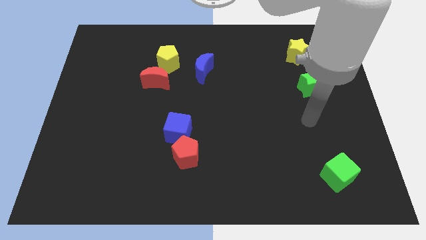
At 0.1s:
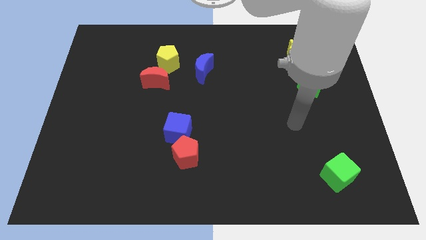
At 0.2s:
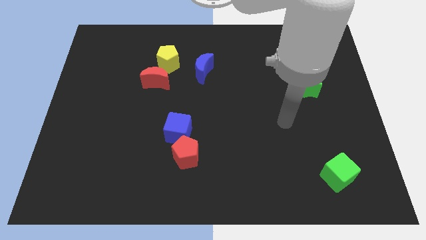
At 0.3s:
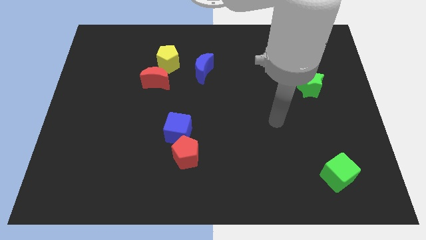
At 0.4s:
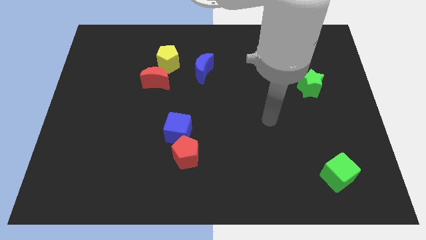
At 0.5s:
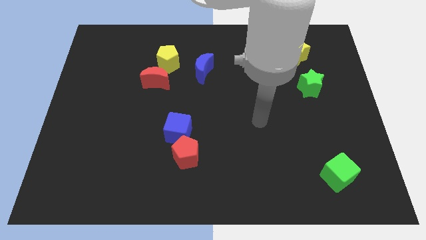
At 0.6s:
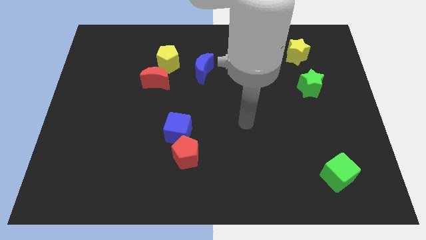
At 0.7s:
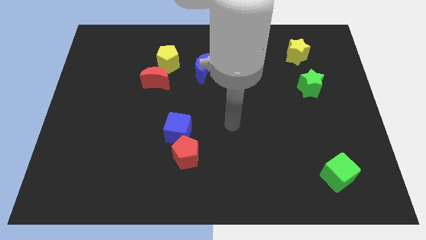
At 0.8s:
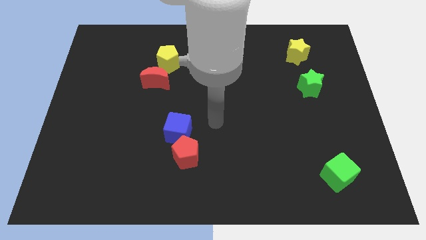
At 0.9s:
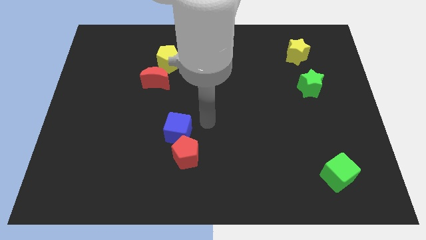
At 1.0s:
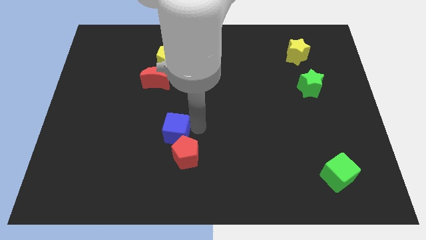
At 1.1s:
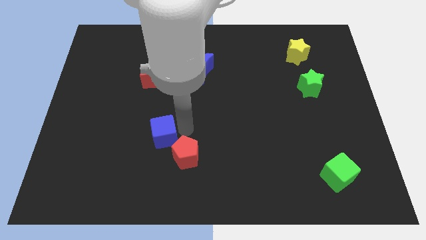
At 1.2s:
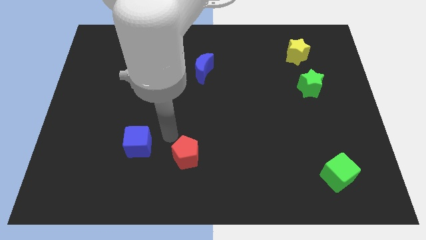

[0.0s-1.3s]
separate the red pentagon from the blue cube

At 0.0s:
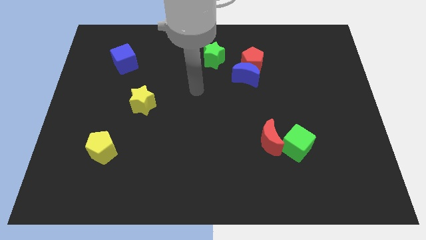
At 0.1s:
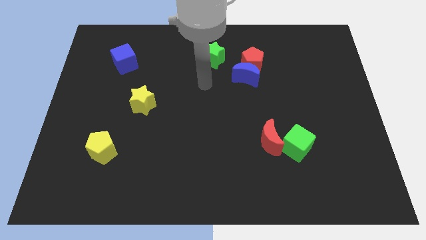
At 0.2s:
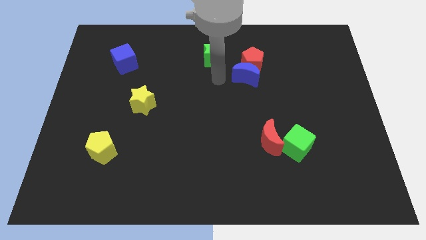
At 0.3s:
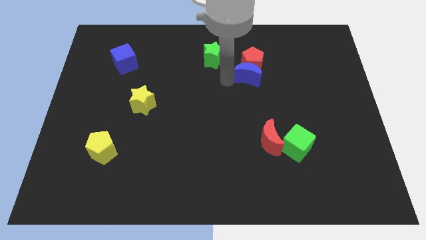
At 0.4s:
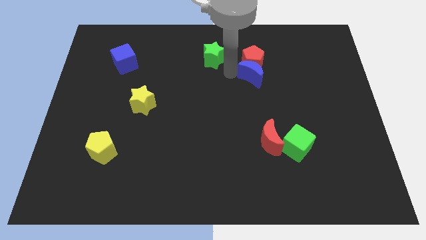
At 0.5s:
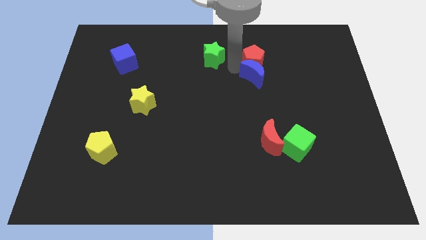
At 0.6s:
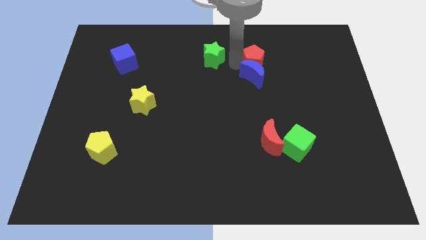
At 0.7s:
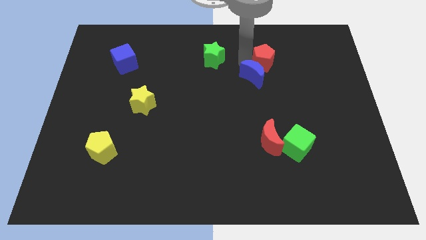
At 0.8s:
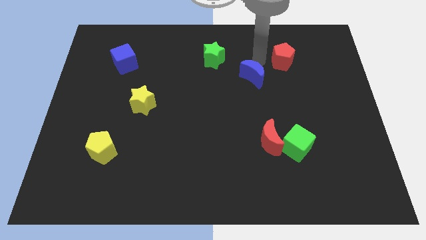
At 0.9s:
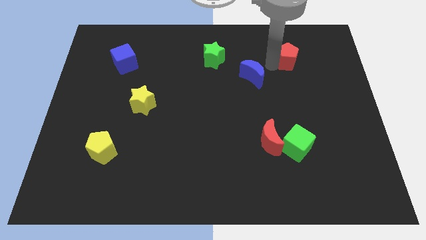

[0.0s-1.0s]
move the blue moon away from the red pentagon

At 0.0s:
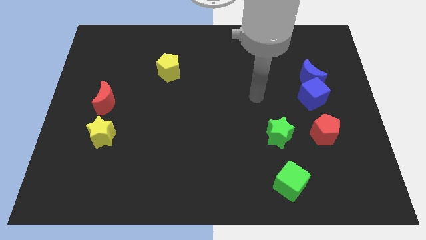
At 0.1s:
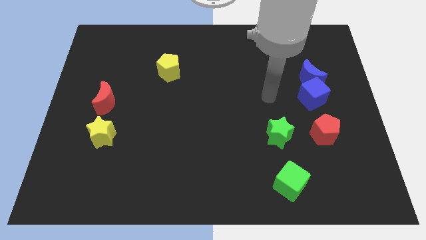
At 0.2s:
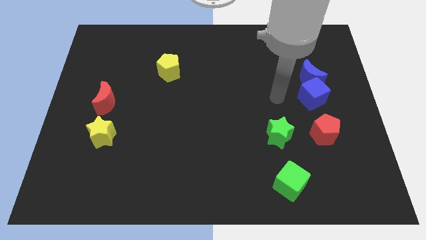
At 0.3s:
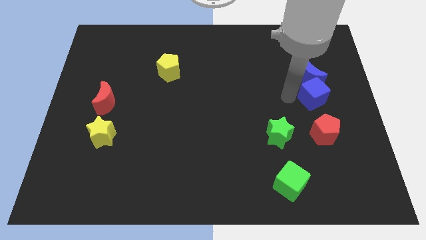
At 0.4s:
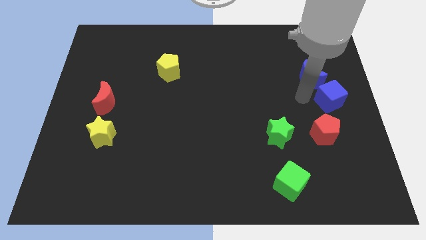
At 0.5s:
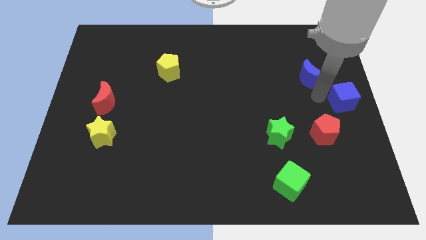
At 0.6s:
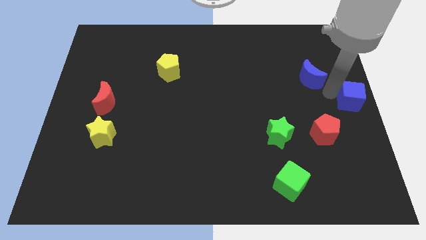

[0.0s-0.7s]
move the blue moon away from the blue cube

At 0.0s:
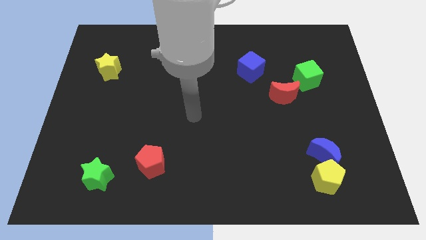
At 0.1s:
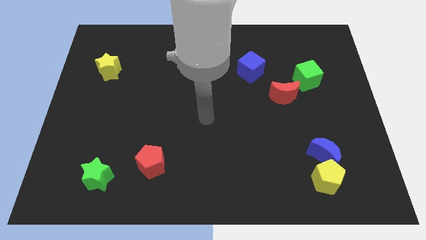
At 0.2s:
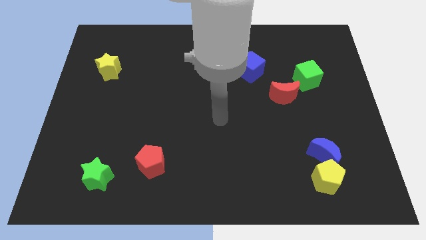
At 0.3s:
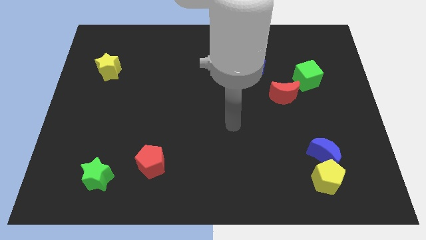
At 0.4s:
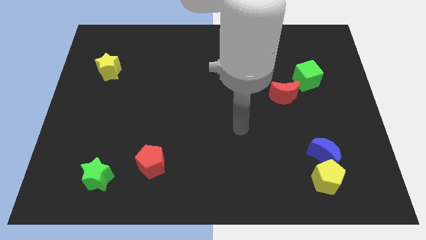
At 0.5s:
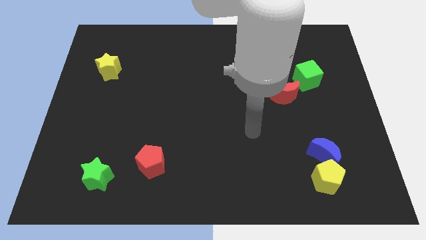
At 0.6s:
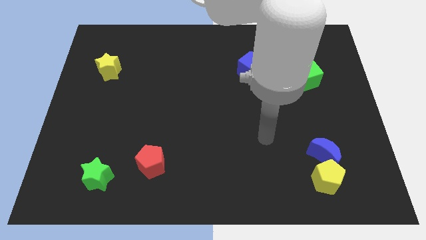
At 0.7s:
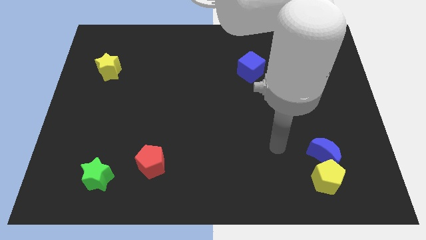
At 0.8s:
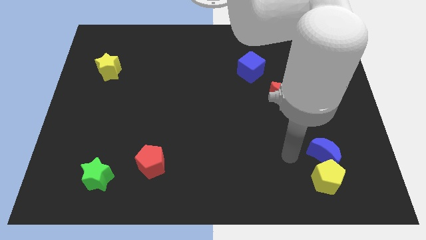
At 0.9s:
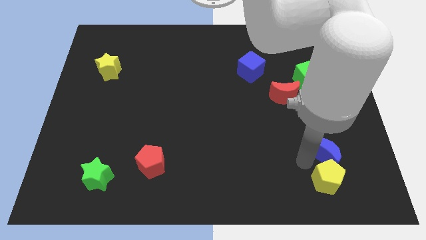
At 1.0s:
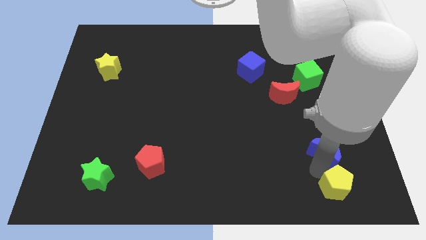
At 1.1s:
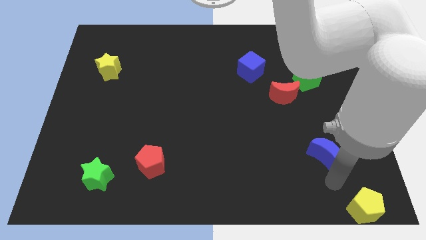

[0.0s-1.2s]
separate the blue moon from the yellow pentagon

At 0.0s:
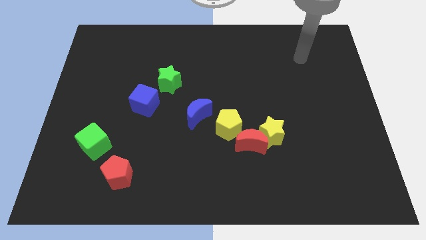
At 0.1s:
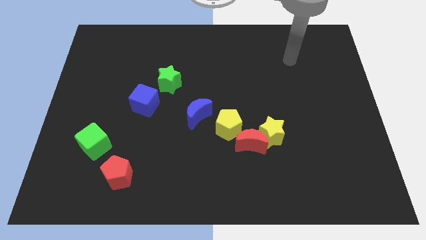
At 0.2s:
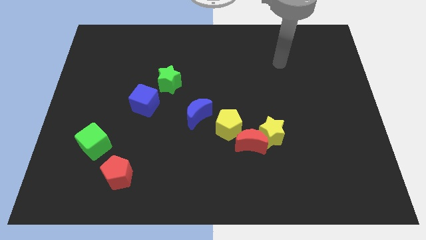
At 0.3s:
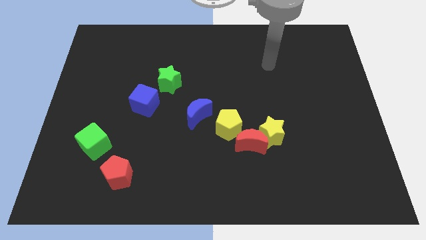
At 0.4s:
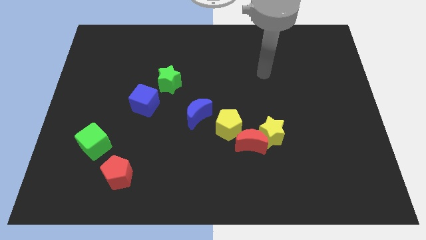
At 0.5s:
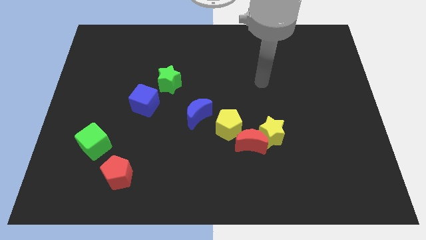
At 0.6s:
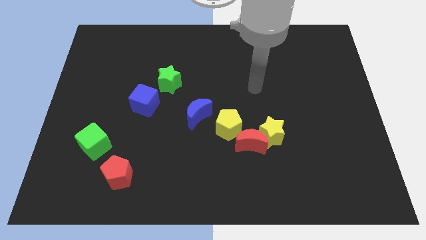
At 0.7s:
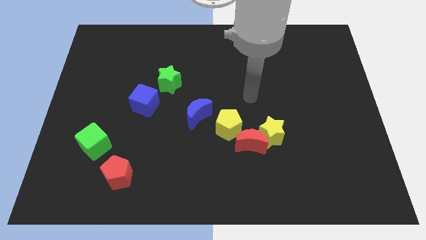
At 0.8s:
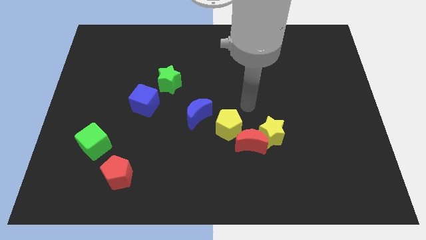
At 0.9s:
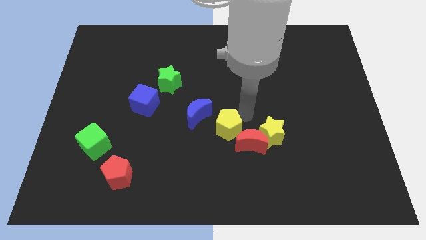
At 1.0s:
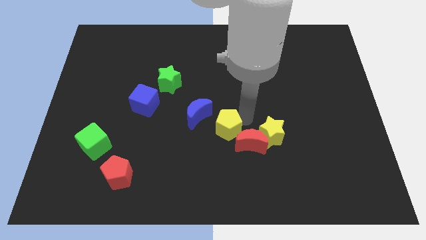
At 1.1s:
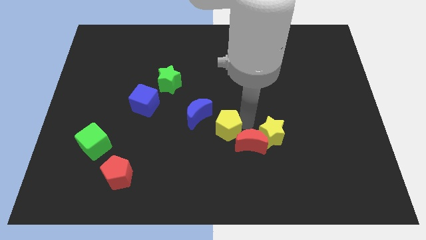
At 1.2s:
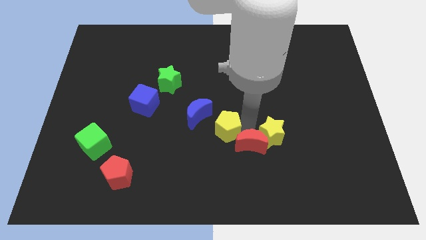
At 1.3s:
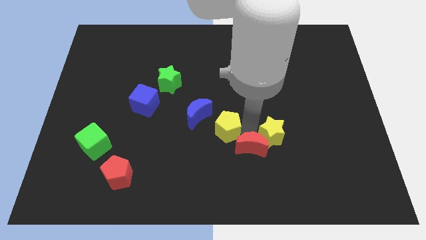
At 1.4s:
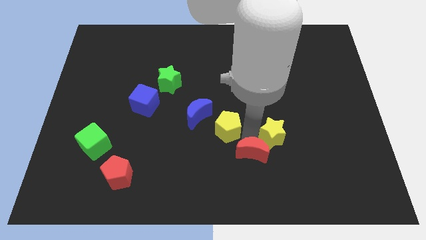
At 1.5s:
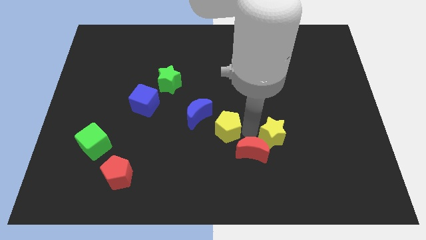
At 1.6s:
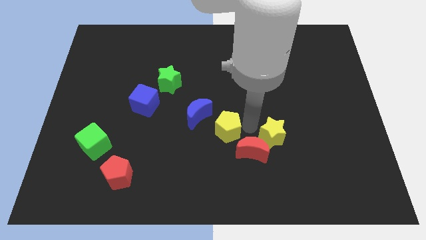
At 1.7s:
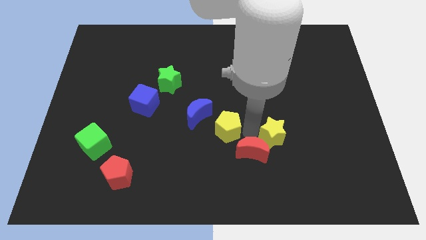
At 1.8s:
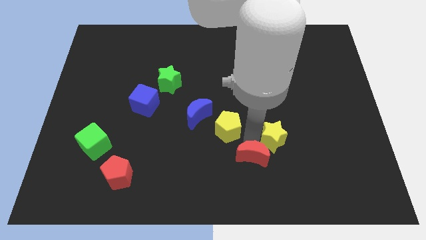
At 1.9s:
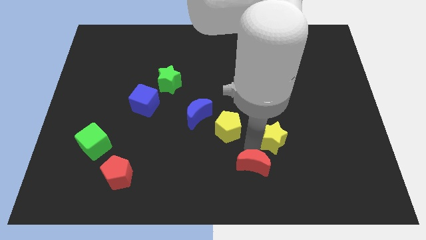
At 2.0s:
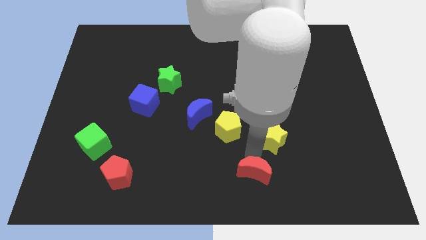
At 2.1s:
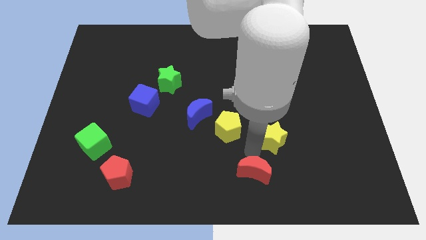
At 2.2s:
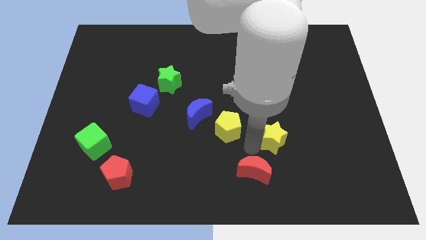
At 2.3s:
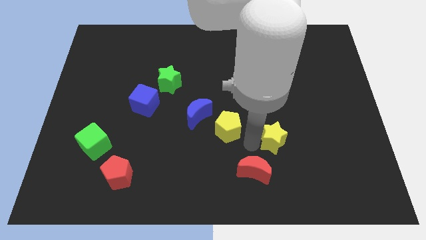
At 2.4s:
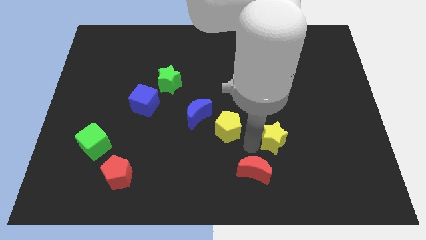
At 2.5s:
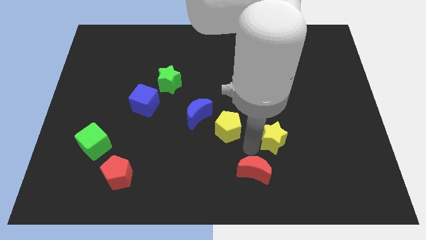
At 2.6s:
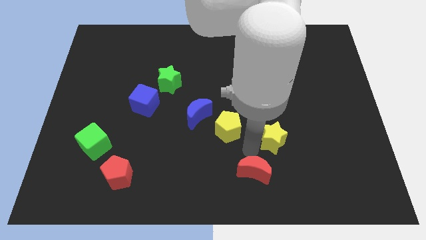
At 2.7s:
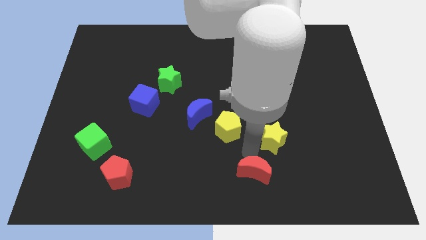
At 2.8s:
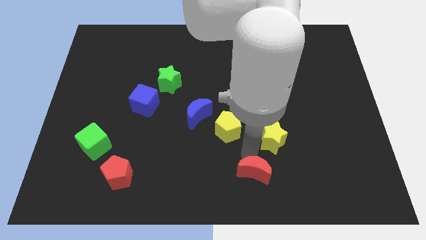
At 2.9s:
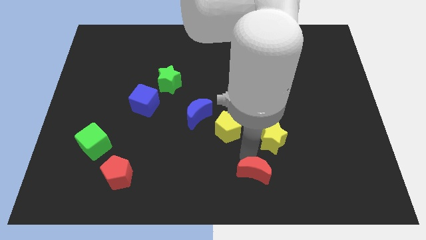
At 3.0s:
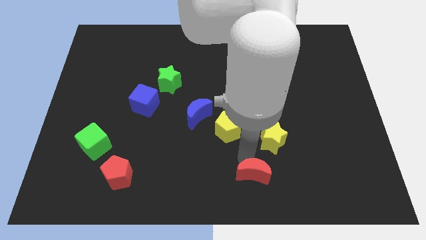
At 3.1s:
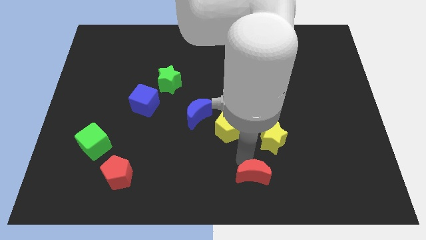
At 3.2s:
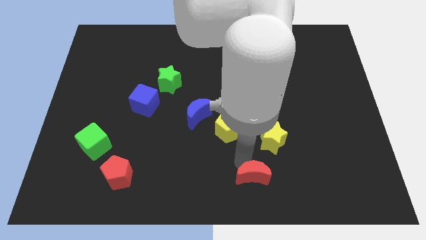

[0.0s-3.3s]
move the red moon away from the yellow star and yellow pentagon

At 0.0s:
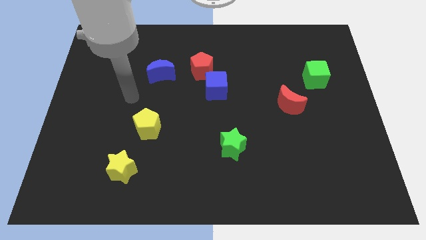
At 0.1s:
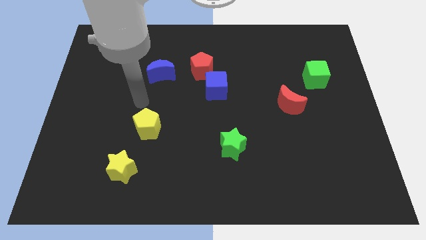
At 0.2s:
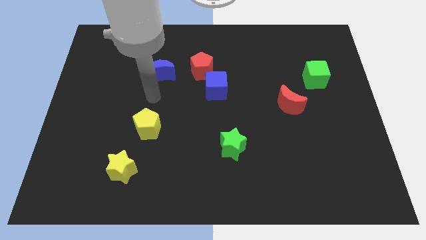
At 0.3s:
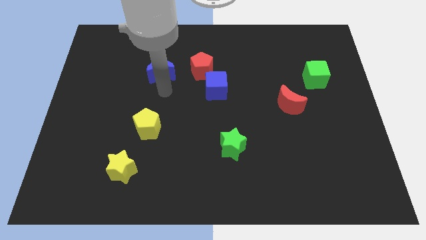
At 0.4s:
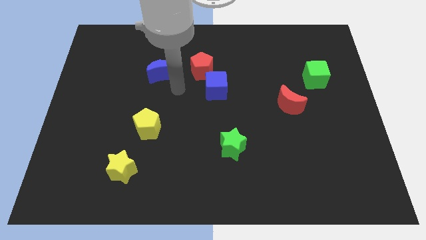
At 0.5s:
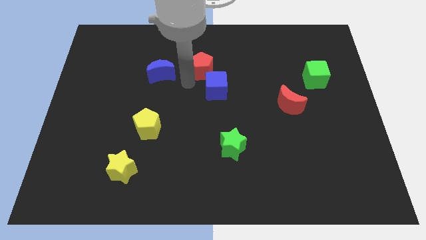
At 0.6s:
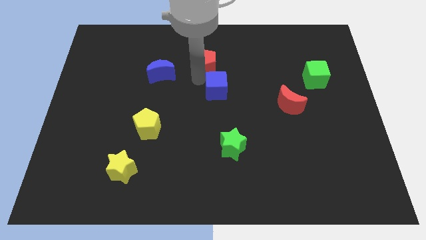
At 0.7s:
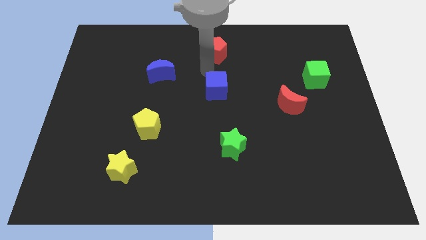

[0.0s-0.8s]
separate the blue cube from the red pentagon

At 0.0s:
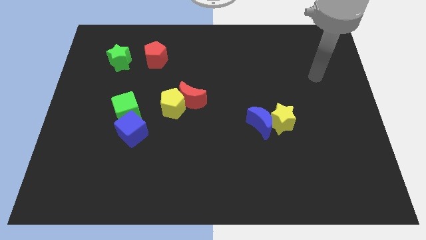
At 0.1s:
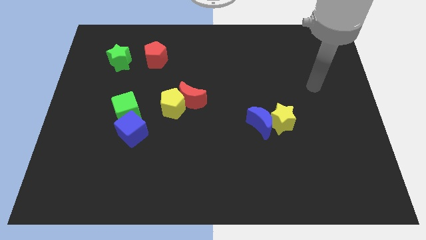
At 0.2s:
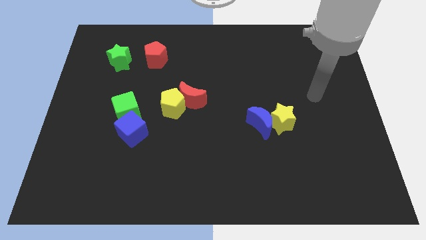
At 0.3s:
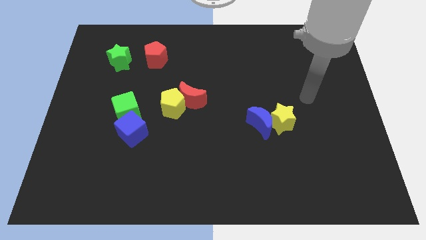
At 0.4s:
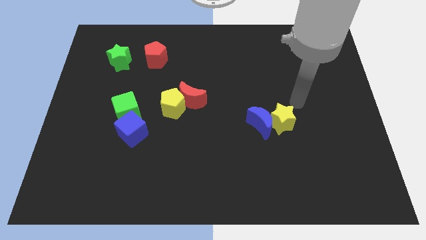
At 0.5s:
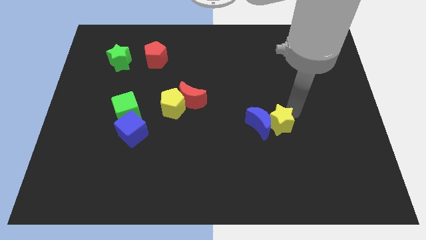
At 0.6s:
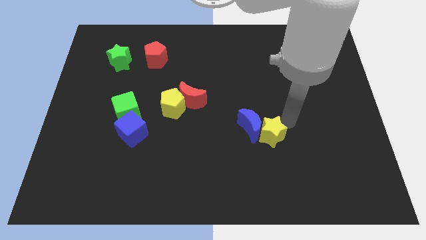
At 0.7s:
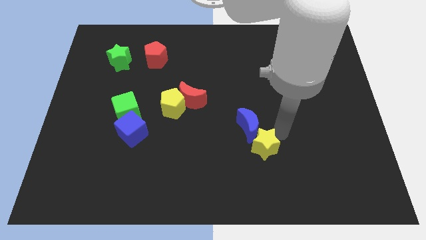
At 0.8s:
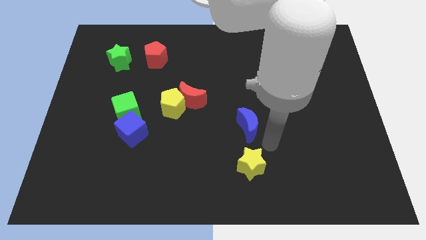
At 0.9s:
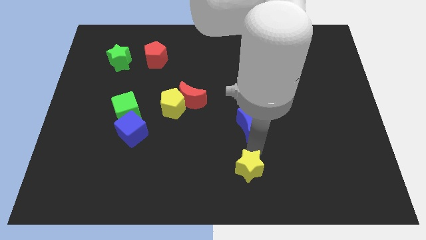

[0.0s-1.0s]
separate the blue moon from the yellow star
